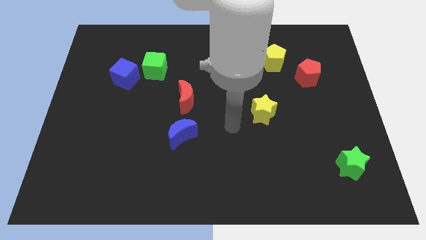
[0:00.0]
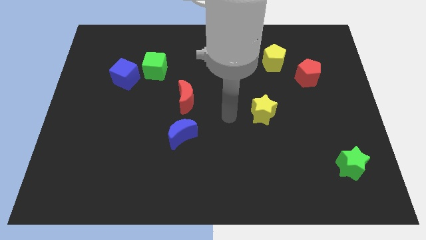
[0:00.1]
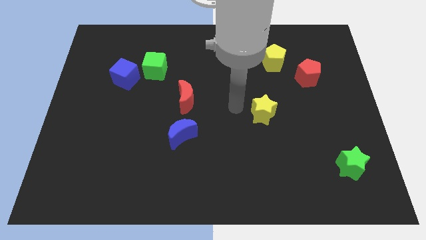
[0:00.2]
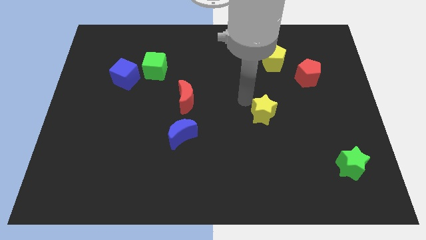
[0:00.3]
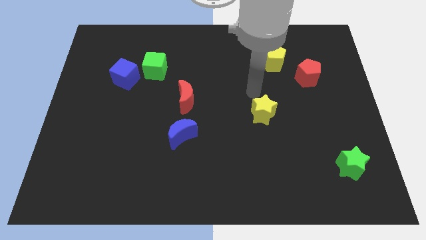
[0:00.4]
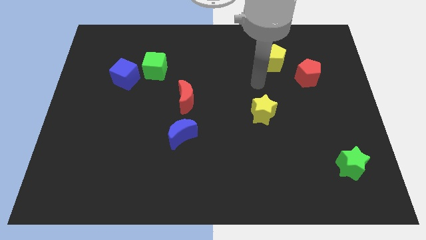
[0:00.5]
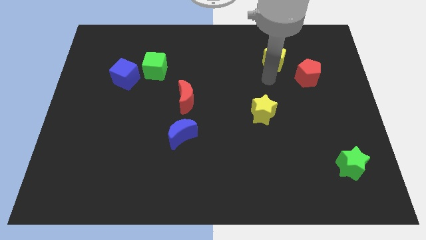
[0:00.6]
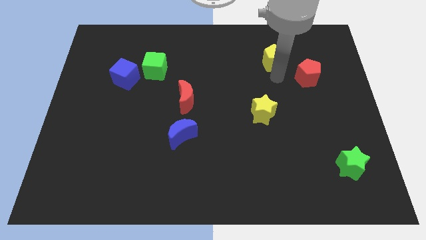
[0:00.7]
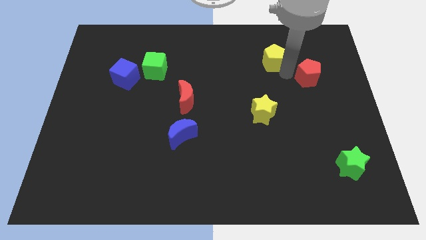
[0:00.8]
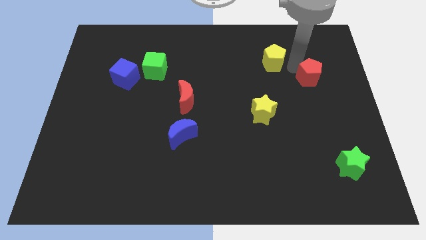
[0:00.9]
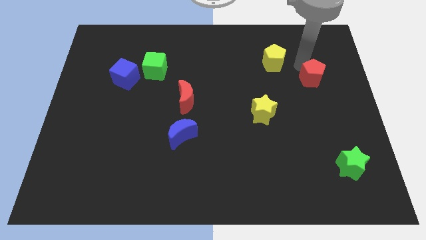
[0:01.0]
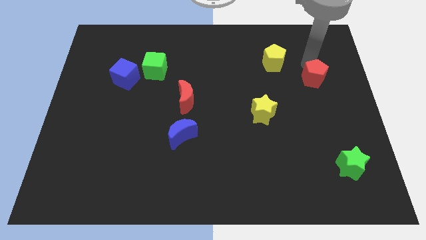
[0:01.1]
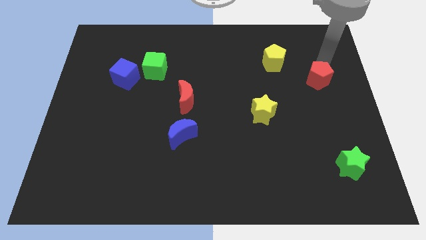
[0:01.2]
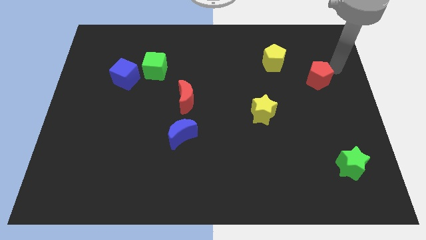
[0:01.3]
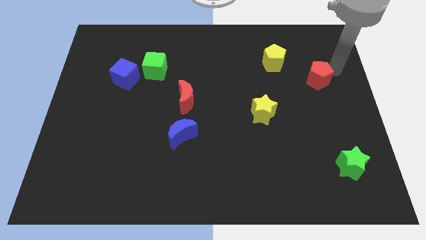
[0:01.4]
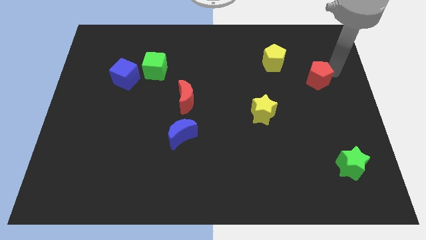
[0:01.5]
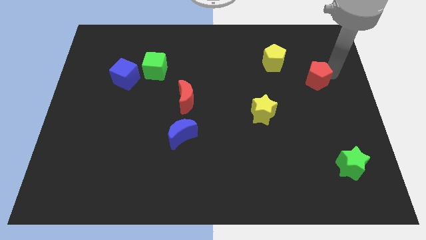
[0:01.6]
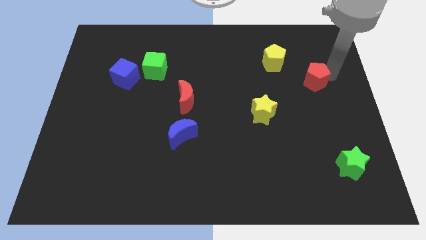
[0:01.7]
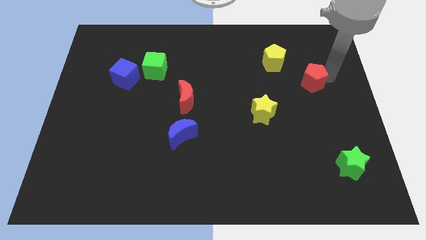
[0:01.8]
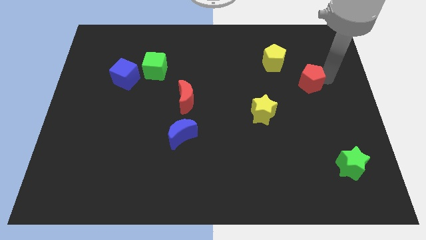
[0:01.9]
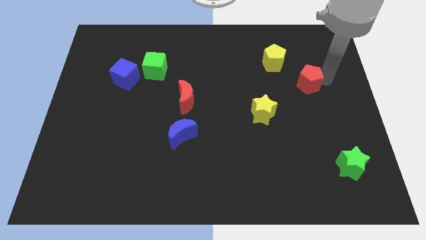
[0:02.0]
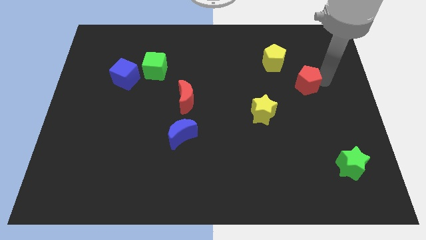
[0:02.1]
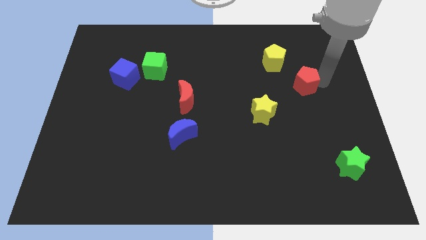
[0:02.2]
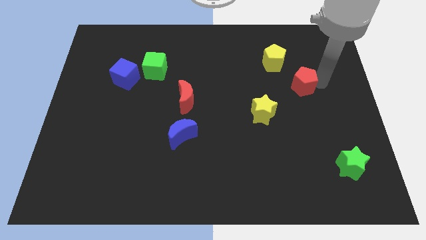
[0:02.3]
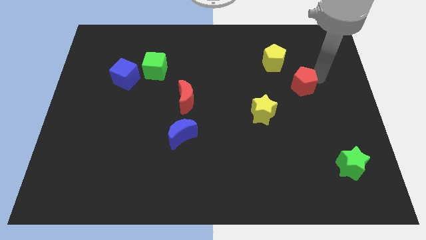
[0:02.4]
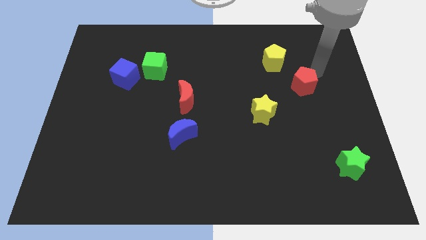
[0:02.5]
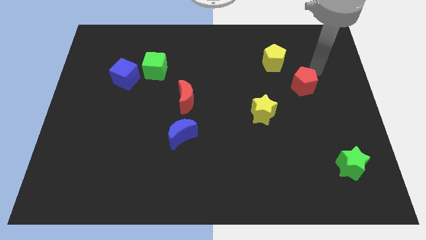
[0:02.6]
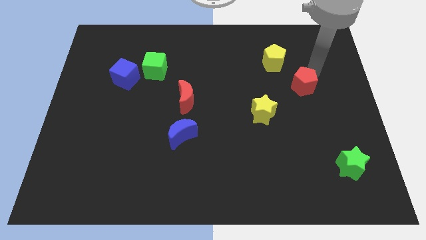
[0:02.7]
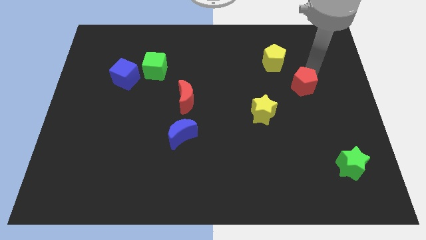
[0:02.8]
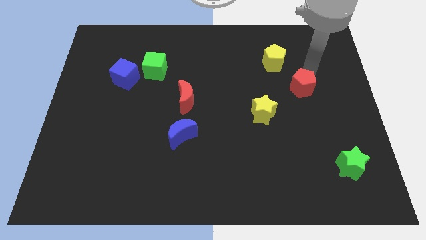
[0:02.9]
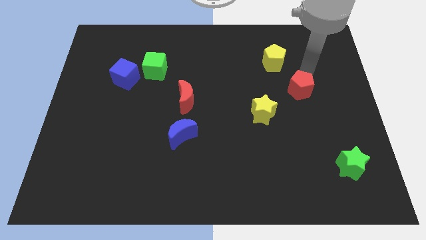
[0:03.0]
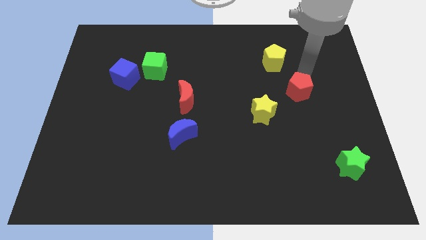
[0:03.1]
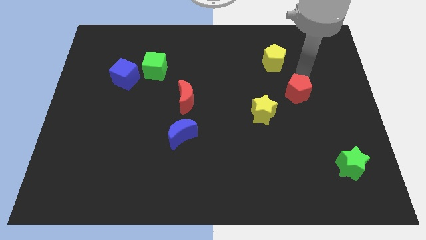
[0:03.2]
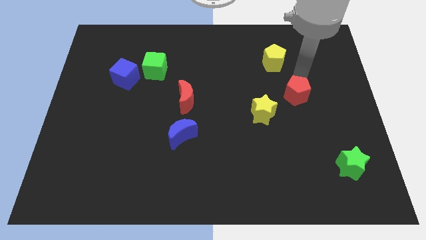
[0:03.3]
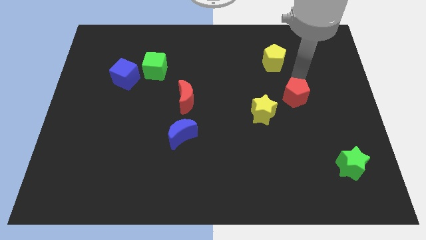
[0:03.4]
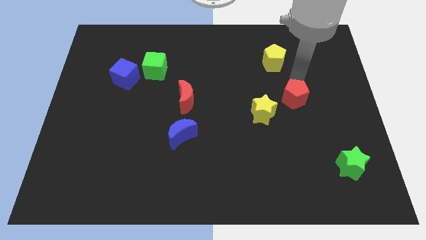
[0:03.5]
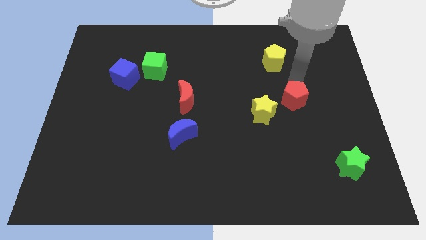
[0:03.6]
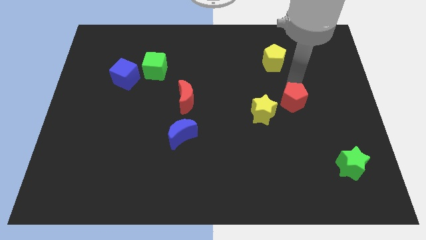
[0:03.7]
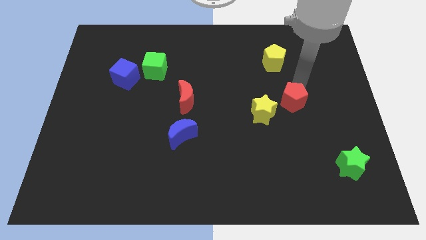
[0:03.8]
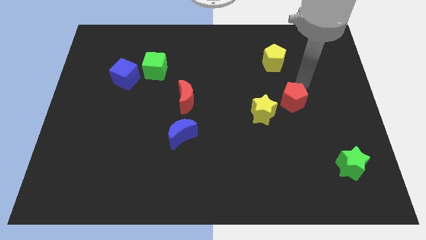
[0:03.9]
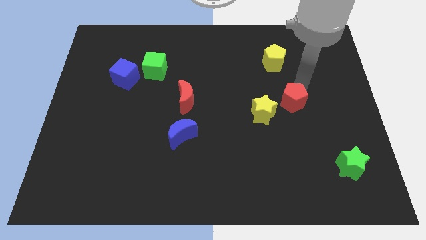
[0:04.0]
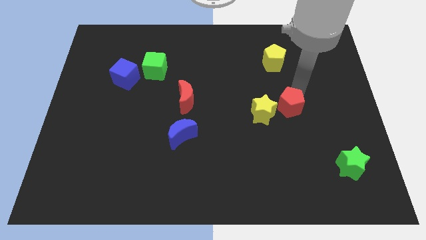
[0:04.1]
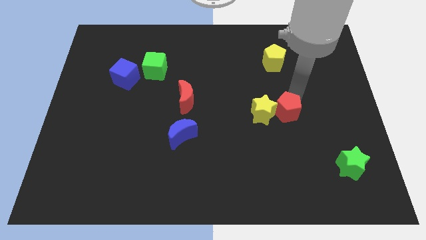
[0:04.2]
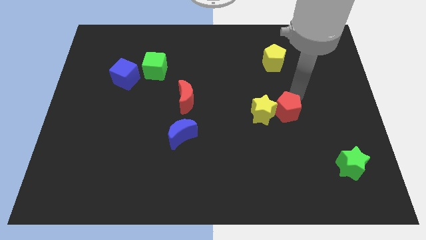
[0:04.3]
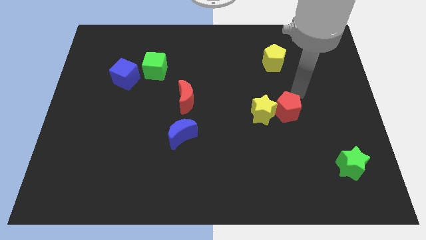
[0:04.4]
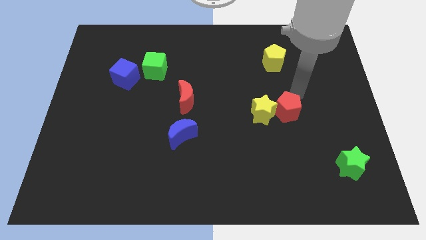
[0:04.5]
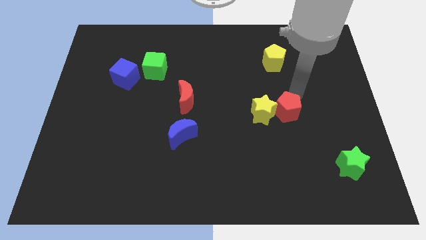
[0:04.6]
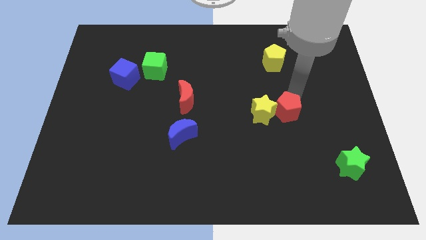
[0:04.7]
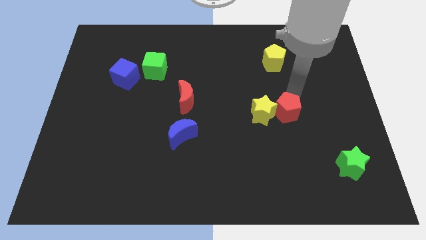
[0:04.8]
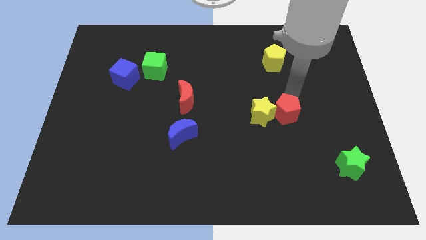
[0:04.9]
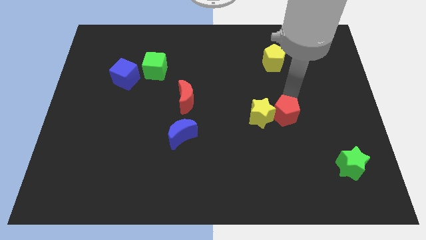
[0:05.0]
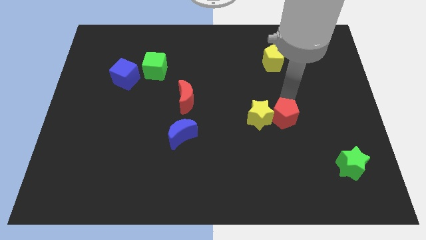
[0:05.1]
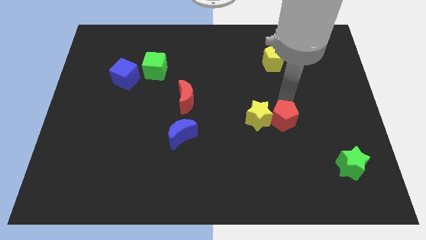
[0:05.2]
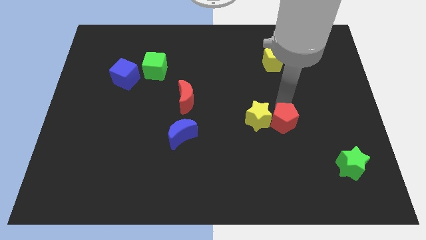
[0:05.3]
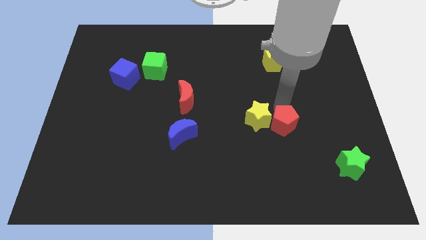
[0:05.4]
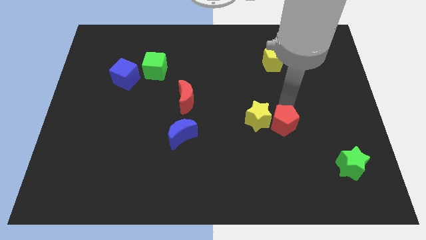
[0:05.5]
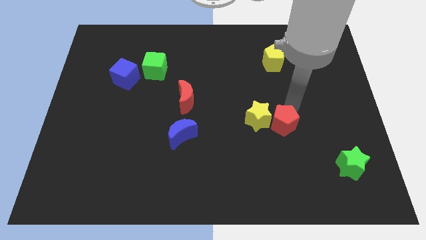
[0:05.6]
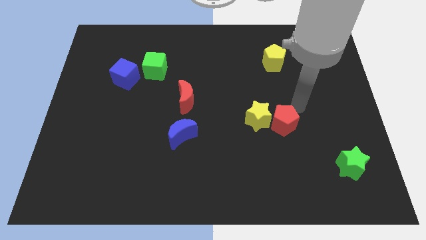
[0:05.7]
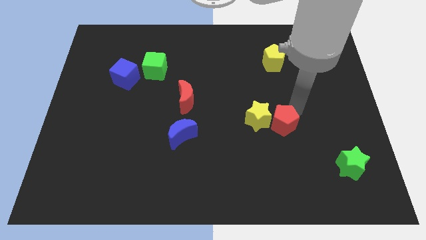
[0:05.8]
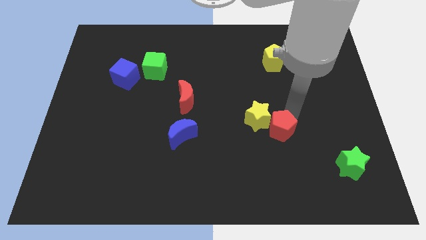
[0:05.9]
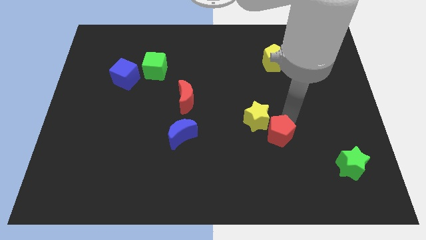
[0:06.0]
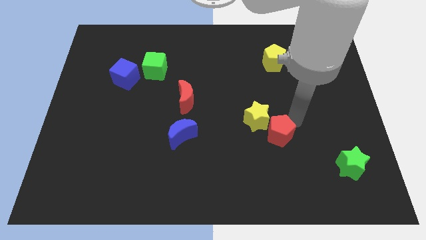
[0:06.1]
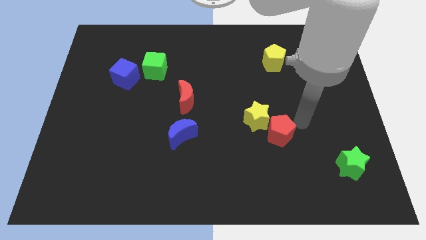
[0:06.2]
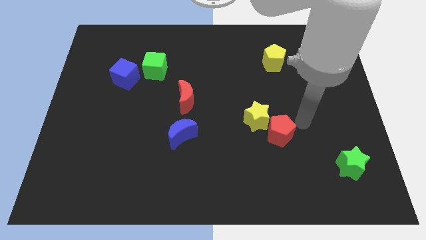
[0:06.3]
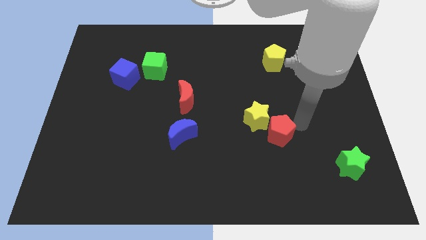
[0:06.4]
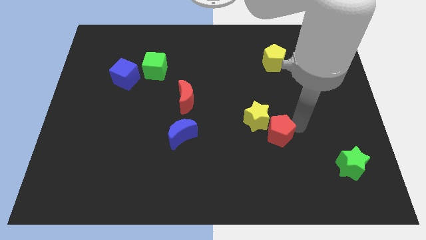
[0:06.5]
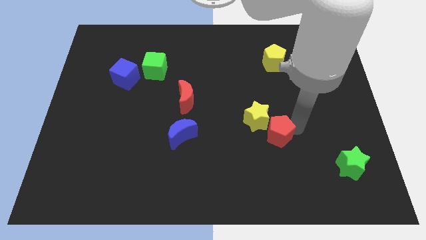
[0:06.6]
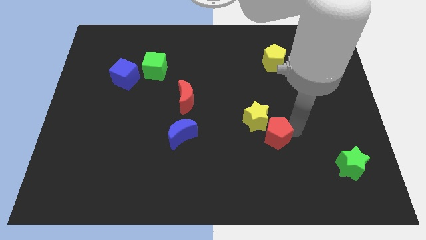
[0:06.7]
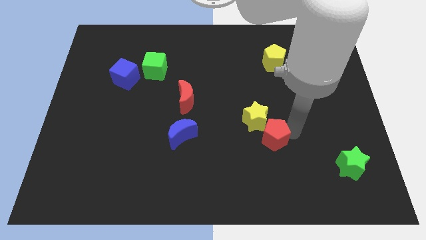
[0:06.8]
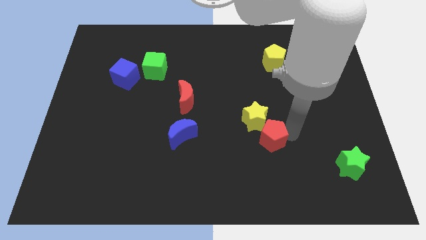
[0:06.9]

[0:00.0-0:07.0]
push the red pentagon down and then left

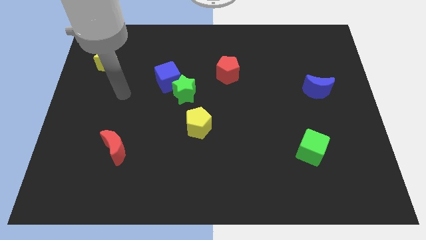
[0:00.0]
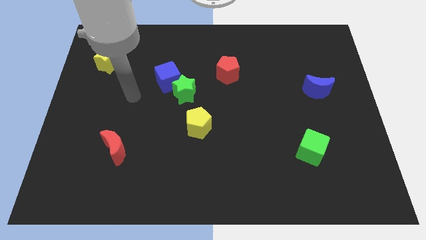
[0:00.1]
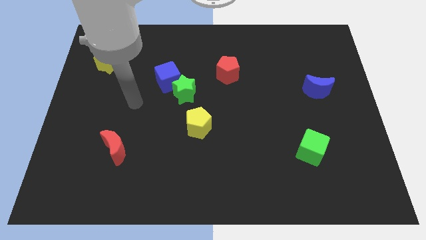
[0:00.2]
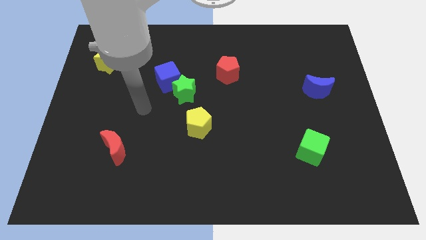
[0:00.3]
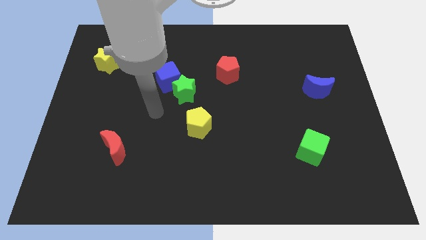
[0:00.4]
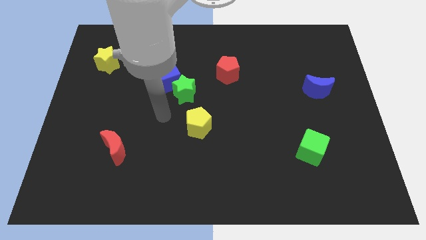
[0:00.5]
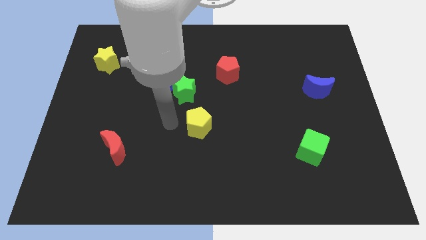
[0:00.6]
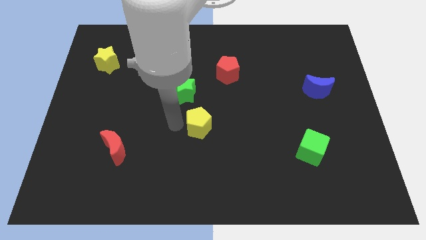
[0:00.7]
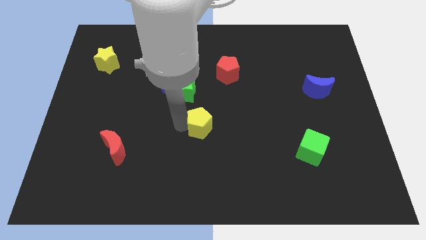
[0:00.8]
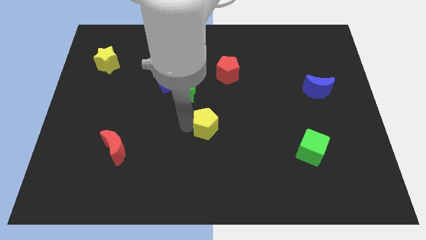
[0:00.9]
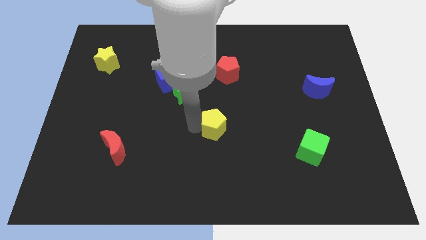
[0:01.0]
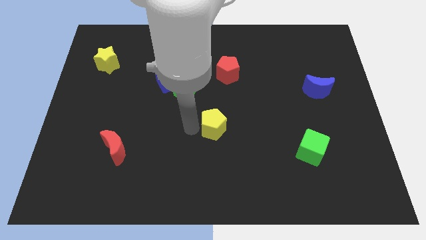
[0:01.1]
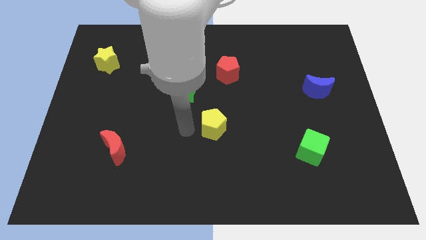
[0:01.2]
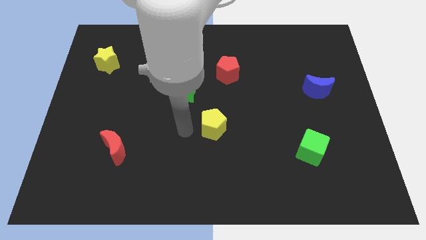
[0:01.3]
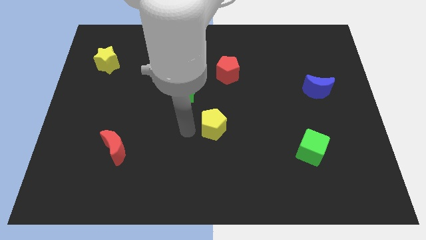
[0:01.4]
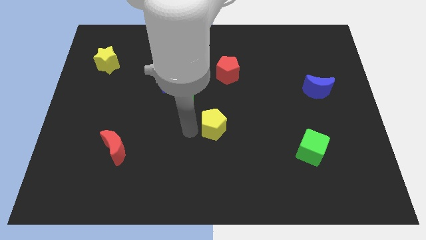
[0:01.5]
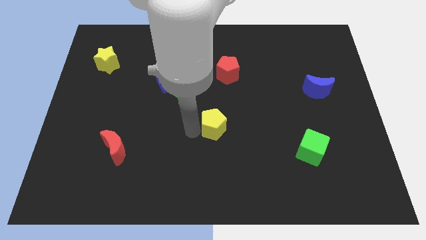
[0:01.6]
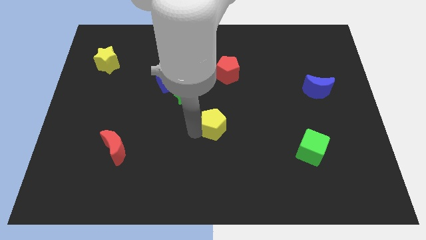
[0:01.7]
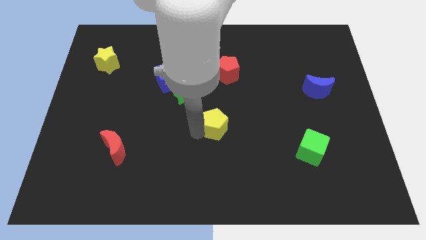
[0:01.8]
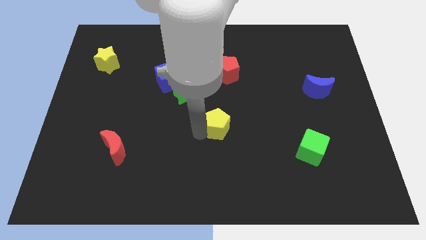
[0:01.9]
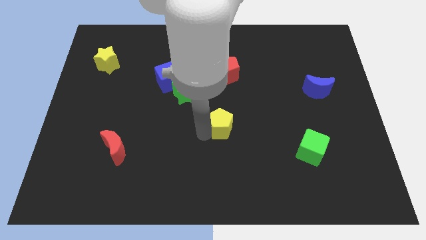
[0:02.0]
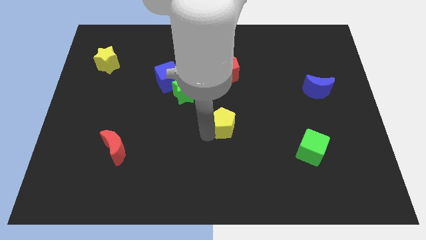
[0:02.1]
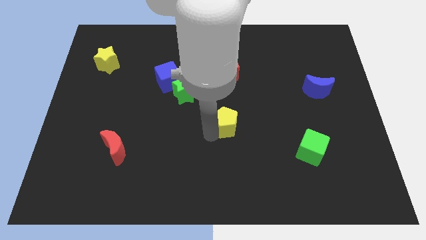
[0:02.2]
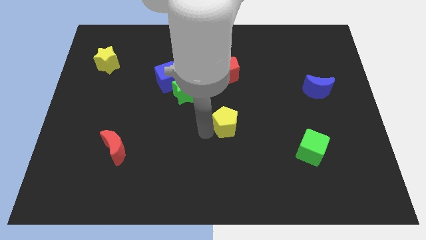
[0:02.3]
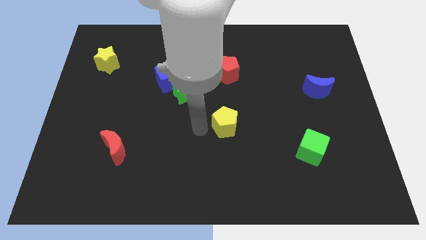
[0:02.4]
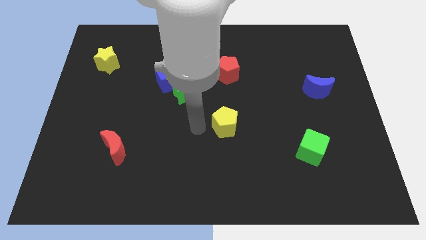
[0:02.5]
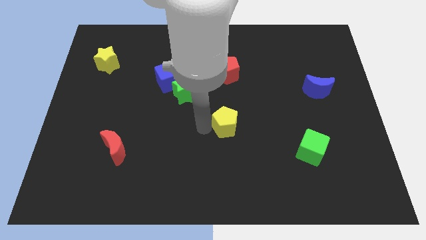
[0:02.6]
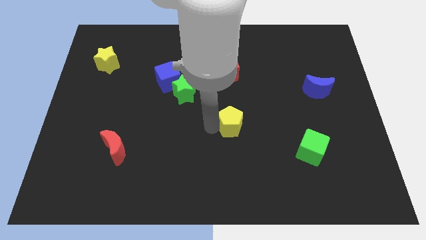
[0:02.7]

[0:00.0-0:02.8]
slide the yellow pentagon somewhat to the right
